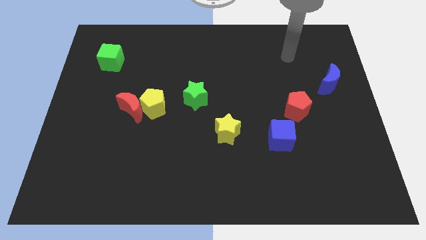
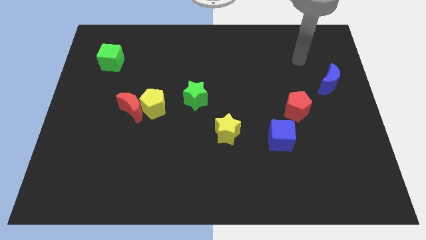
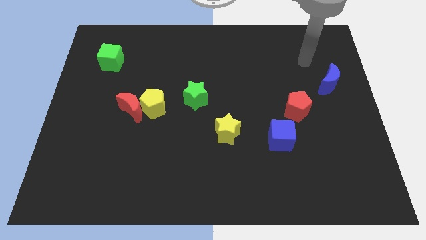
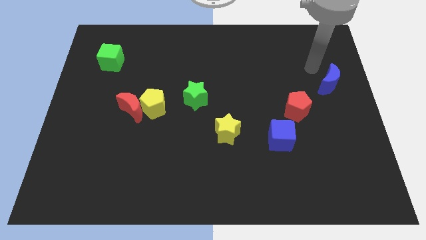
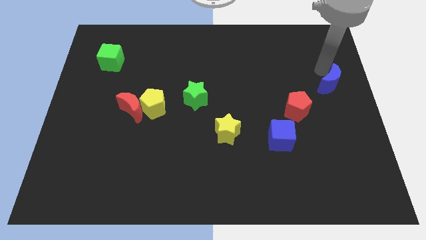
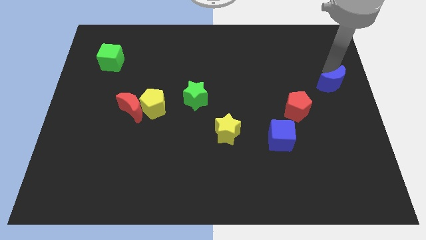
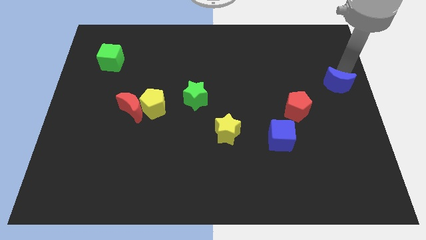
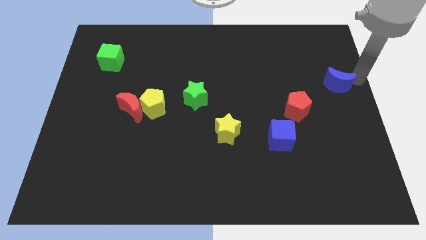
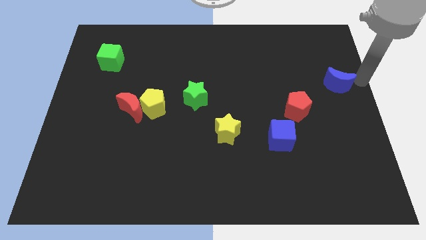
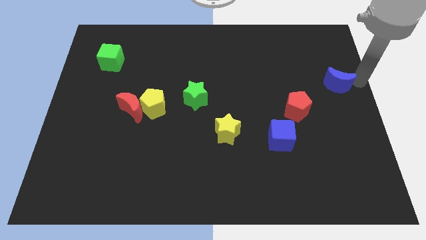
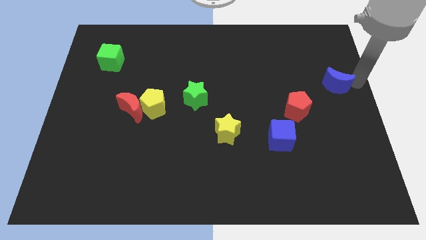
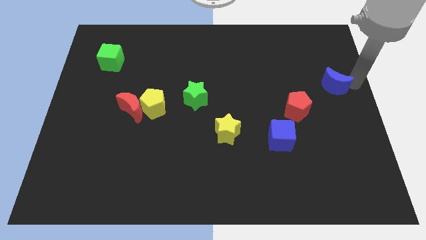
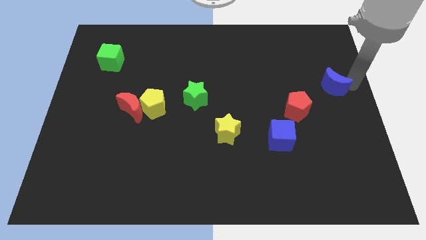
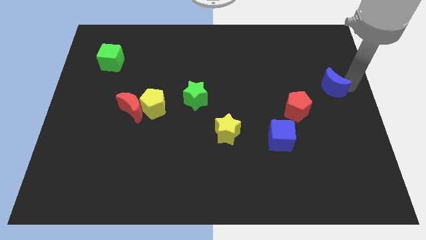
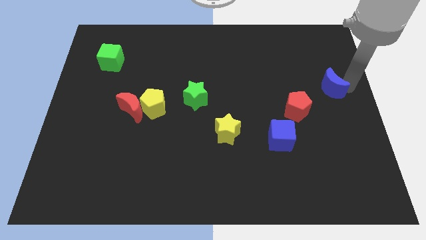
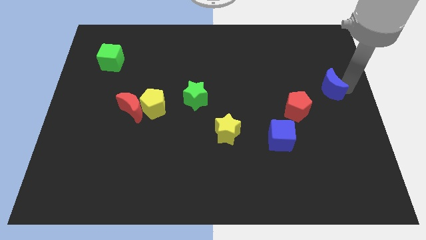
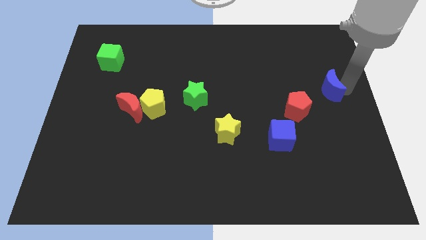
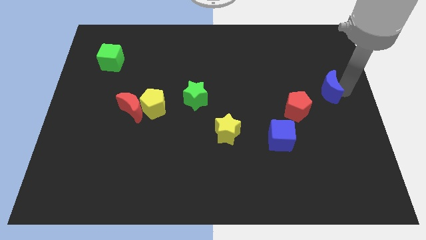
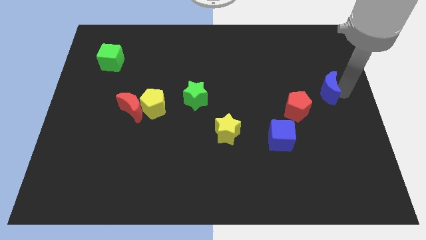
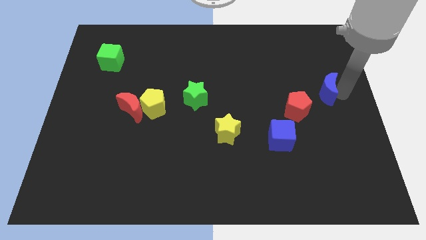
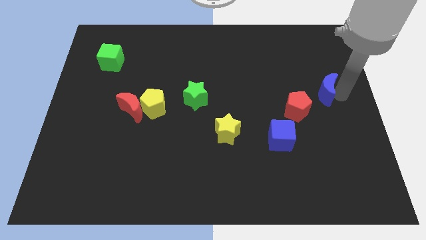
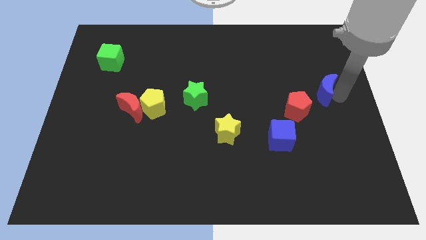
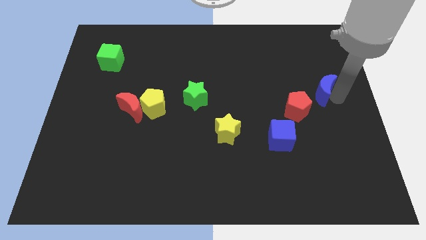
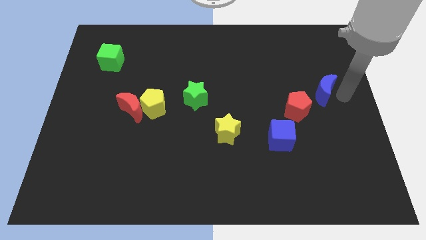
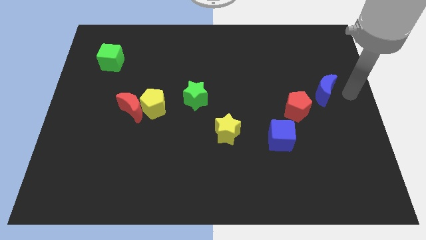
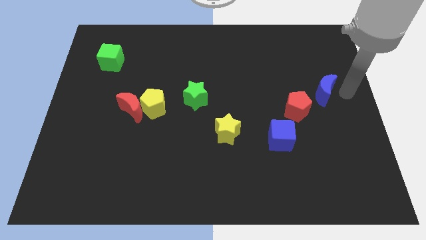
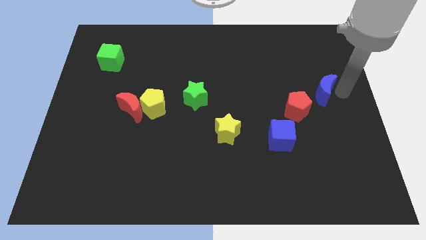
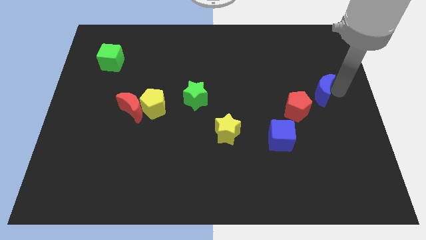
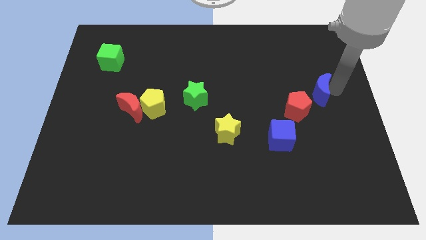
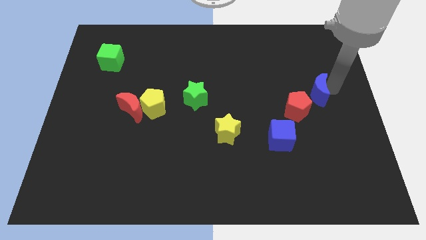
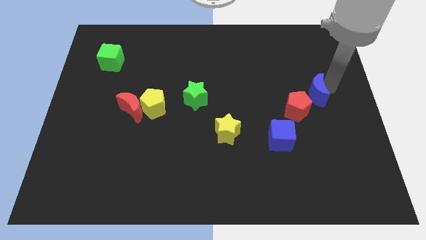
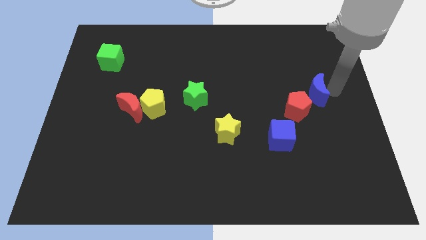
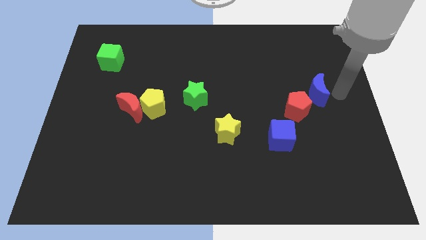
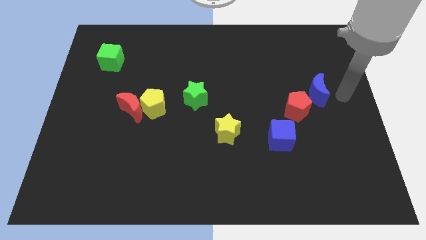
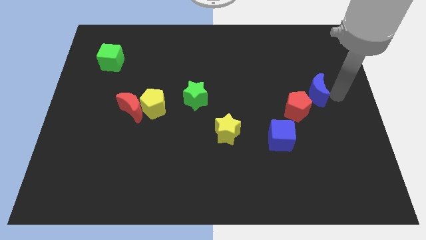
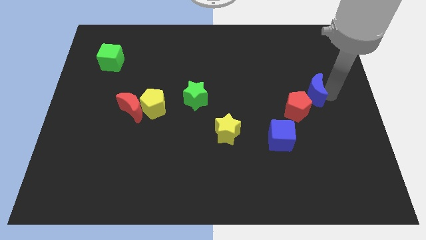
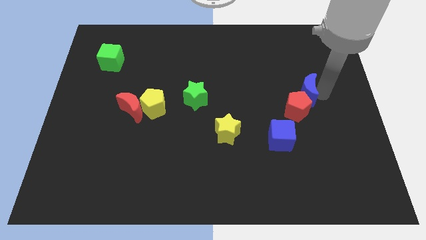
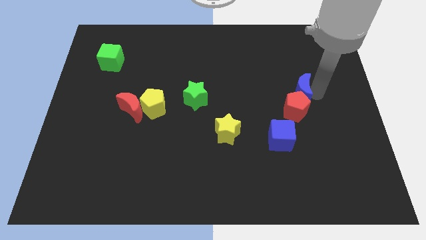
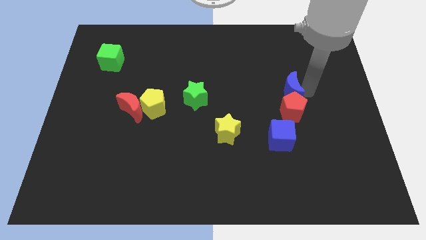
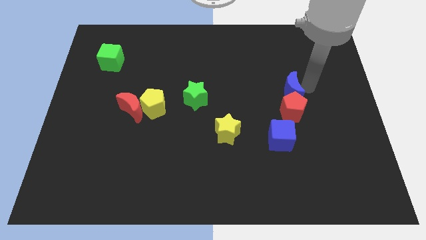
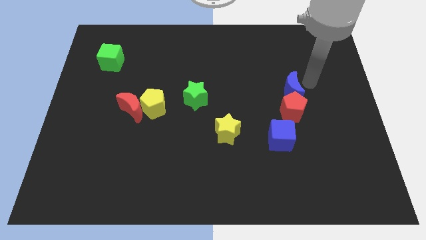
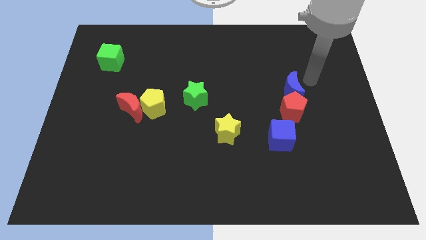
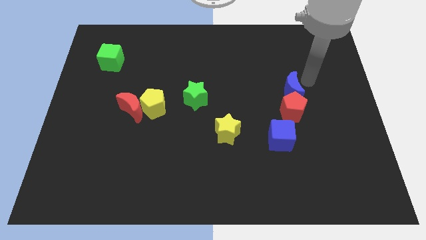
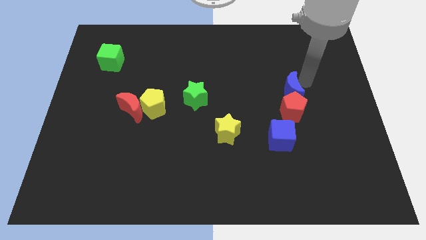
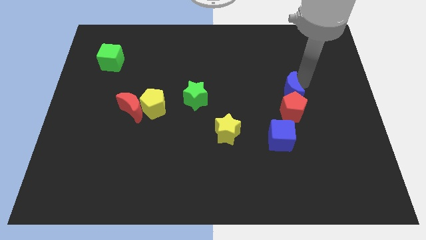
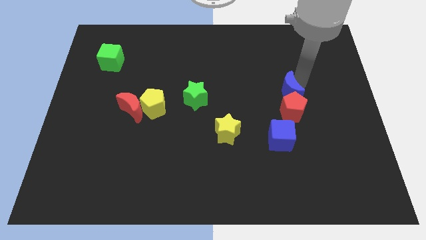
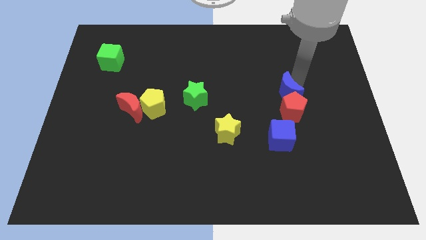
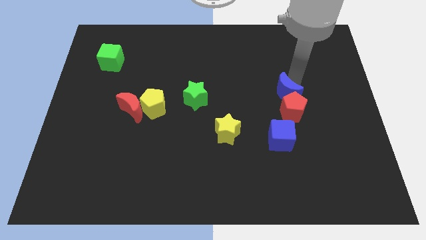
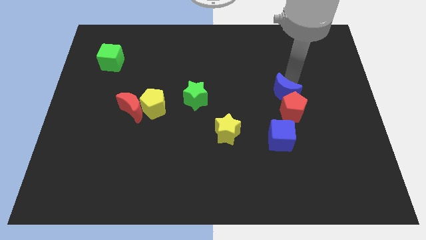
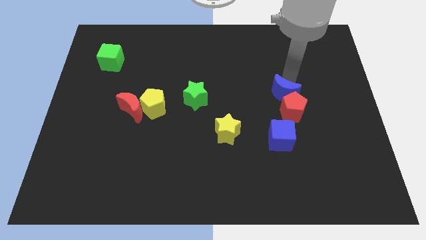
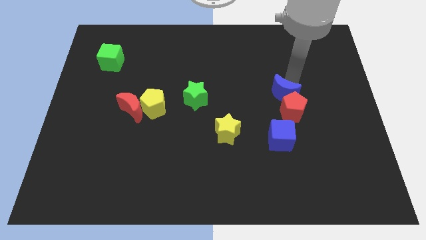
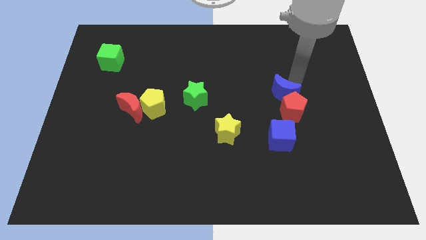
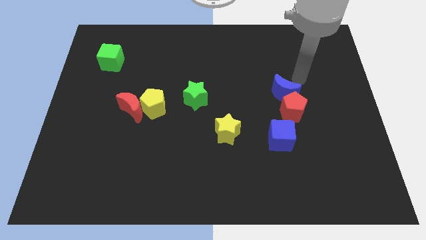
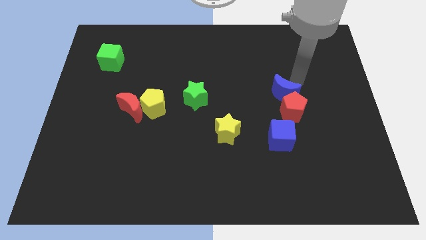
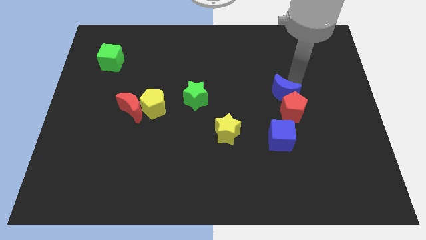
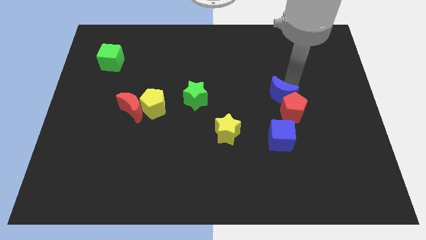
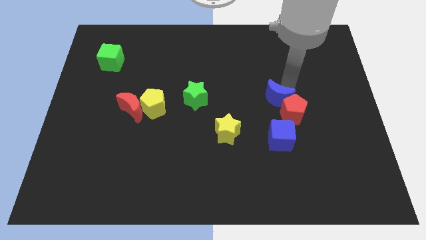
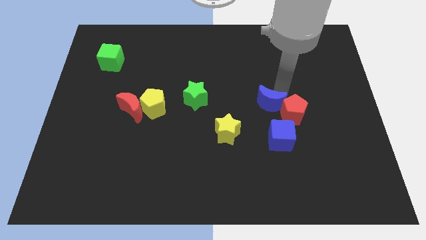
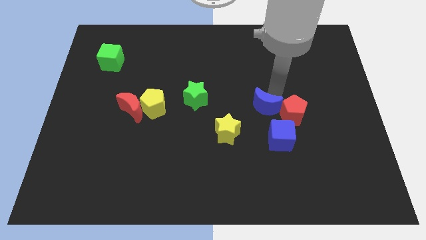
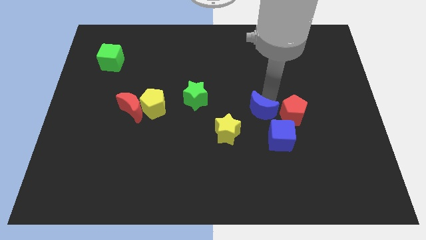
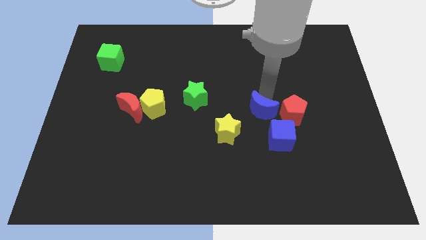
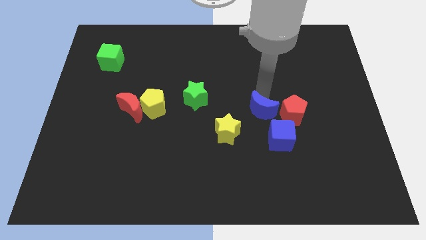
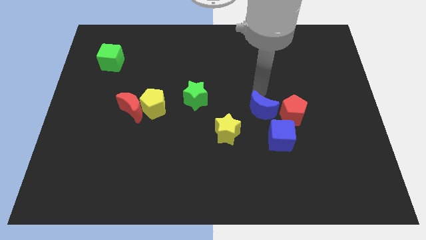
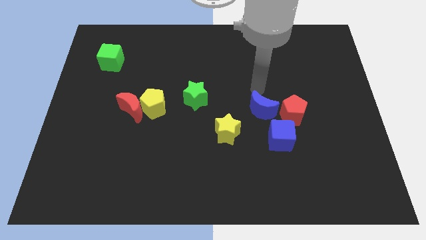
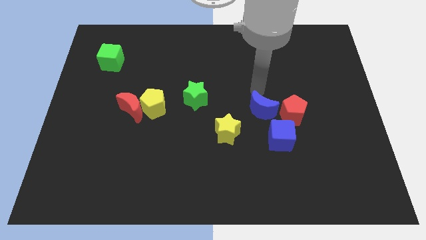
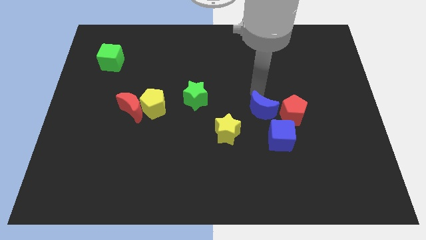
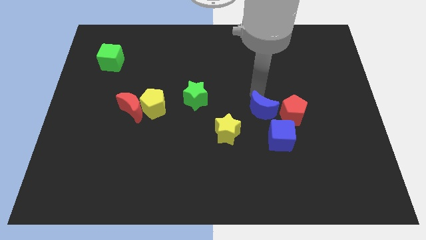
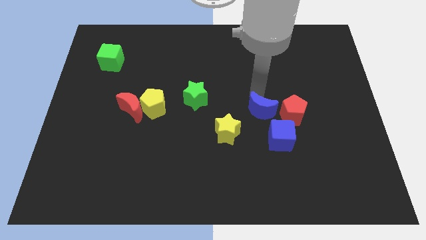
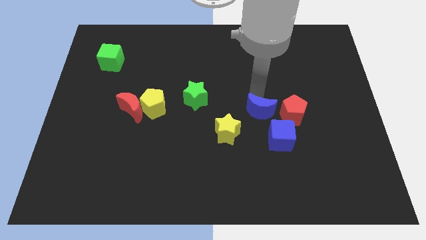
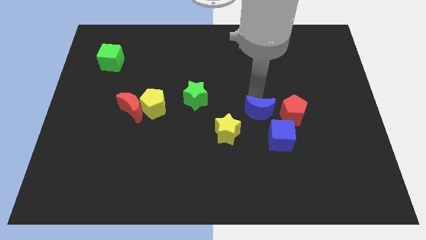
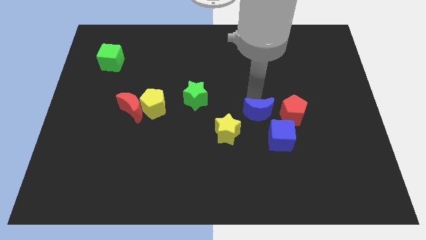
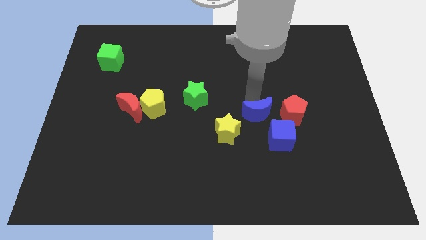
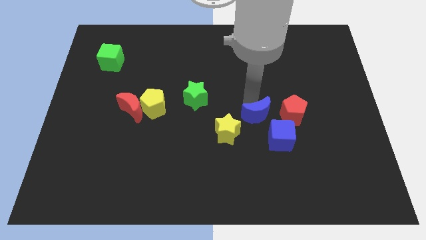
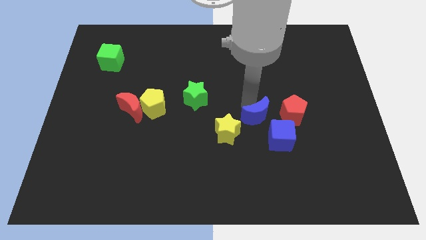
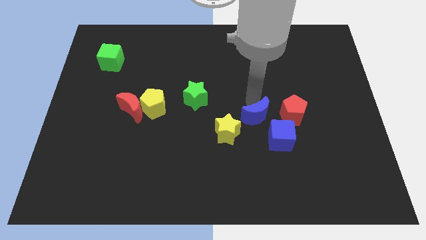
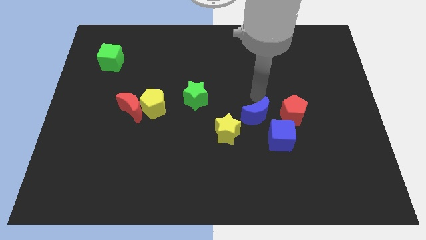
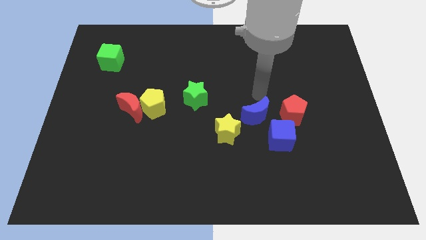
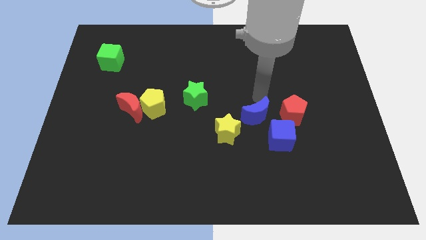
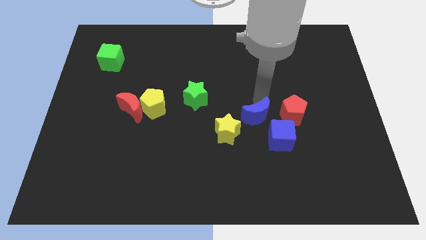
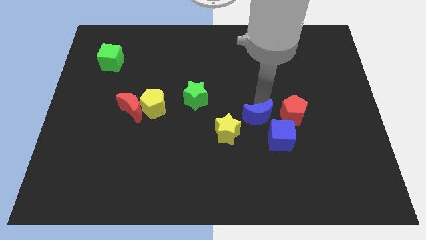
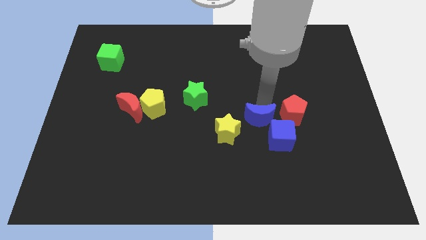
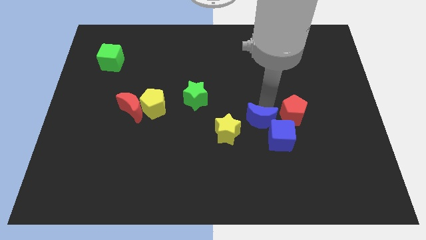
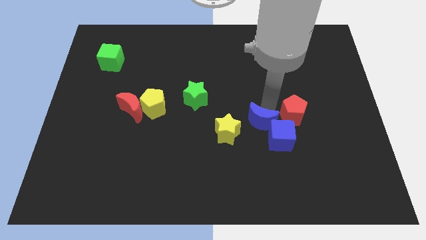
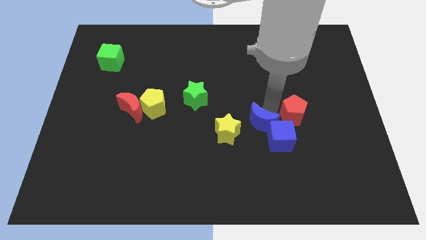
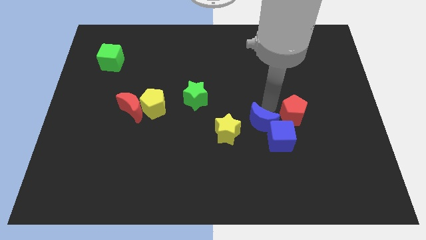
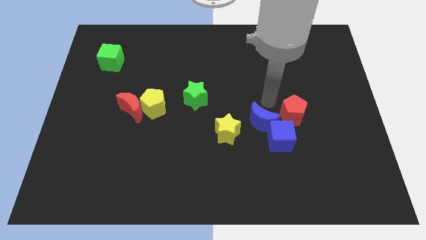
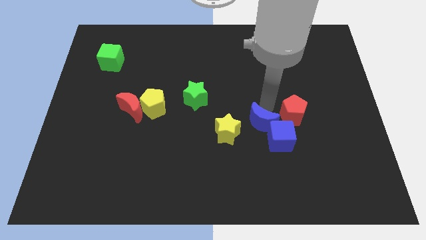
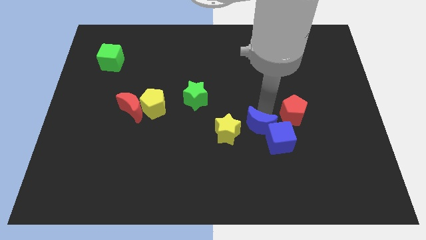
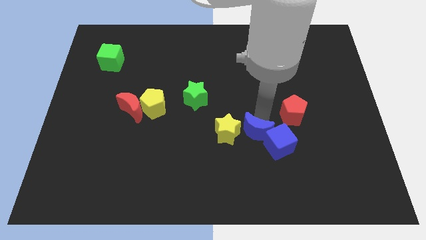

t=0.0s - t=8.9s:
put the blue moon to the bottom right of the yellow star
